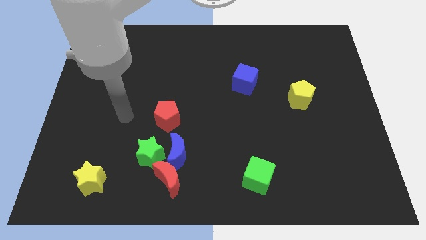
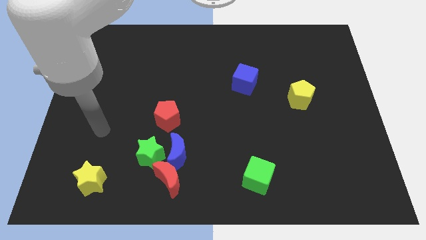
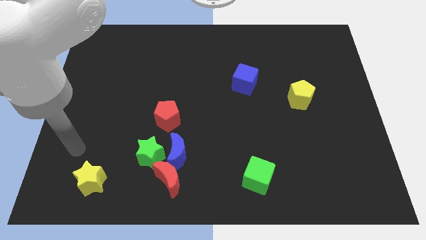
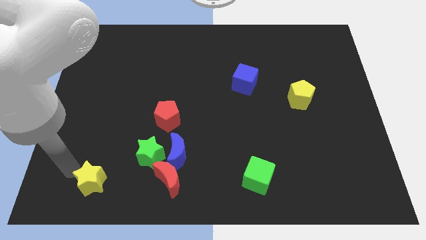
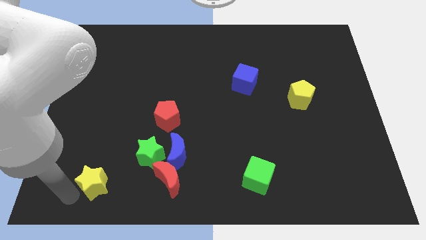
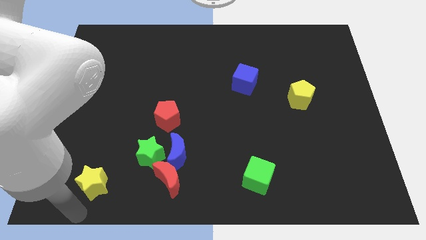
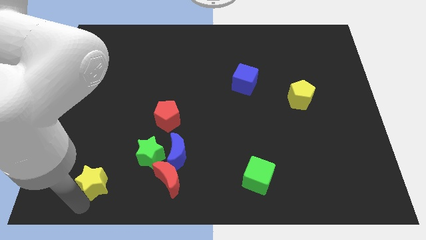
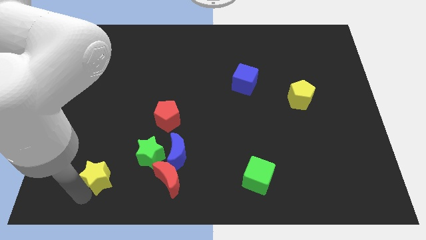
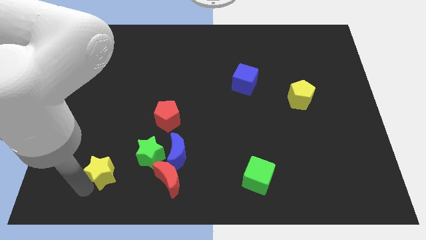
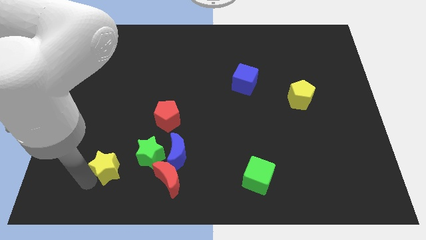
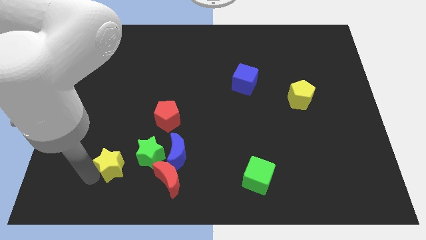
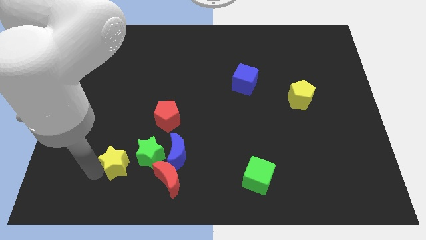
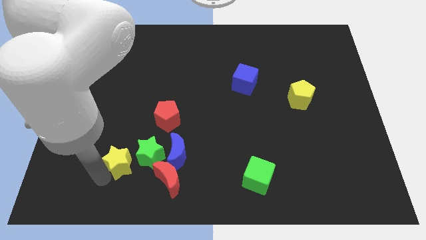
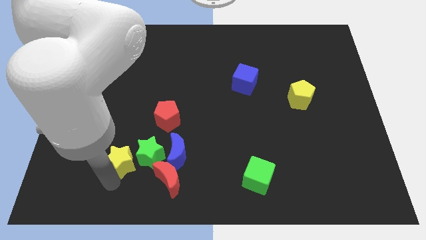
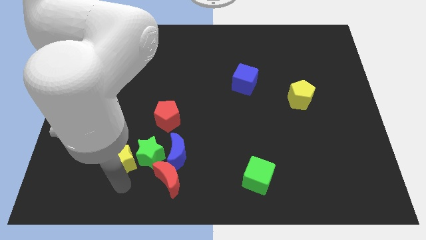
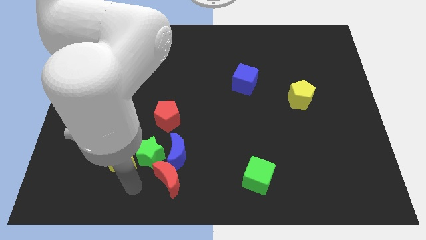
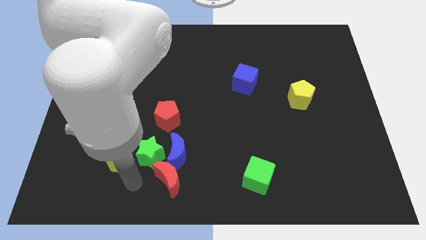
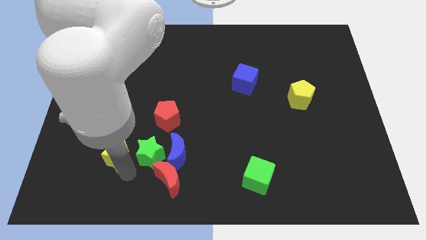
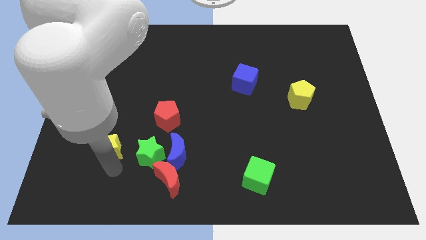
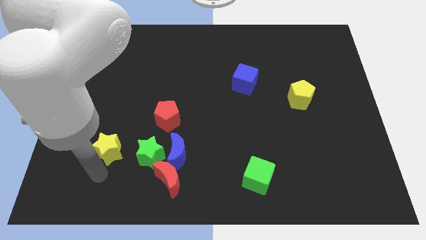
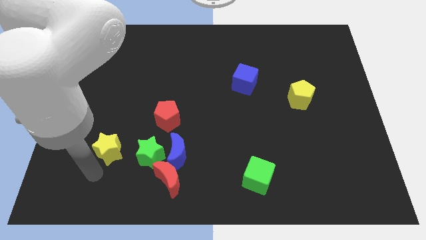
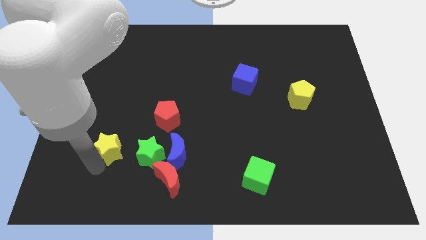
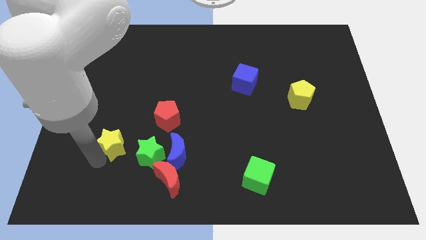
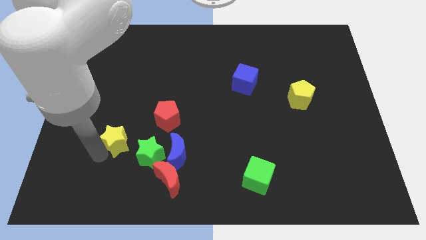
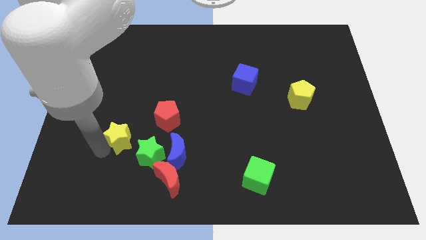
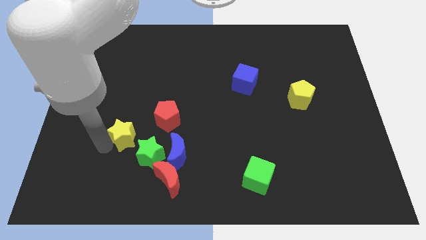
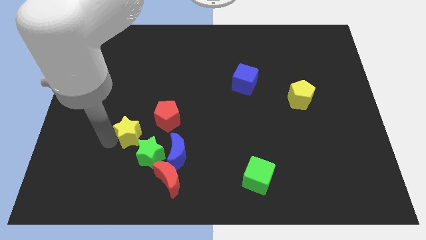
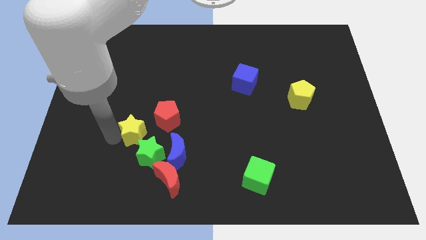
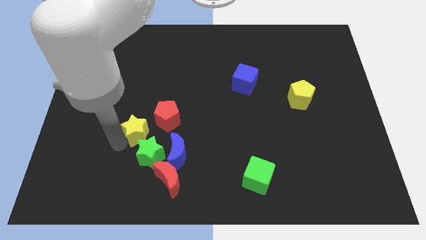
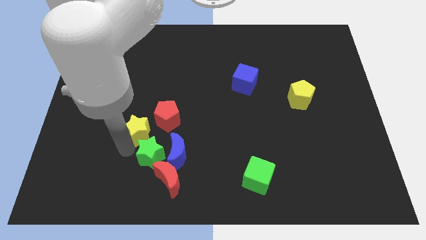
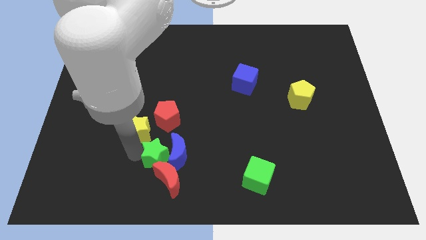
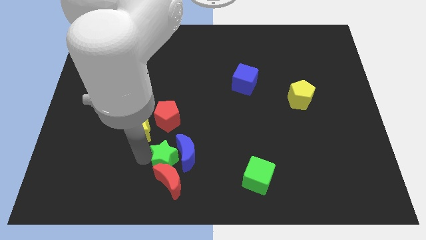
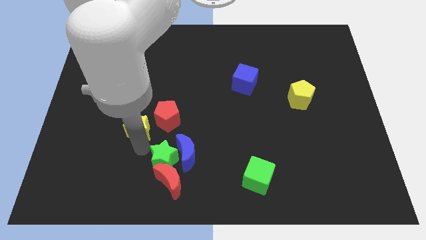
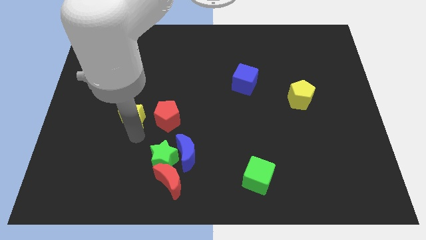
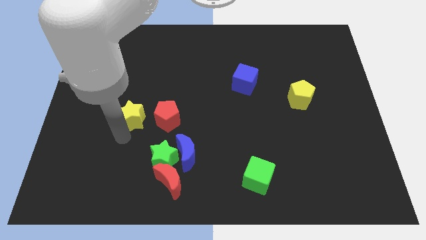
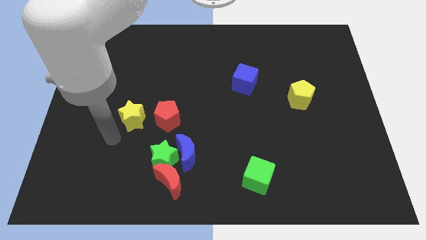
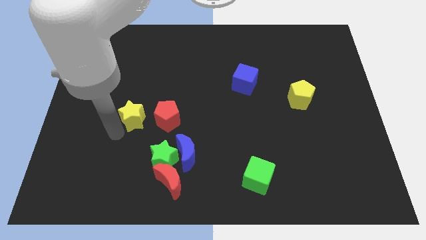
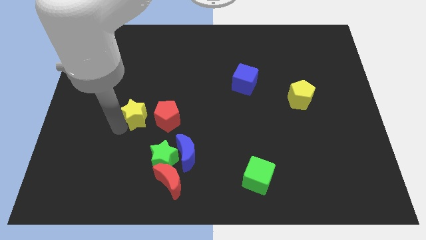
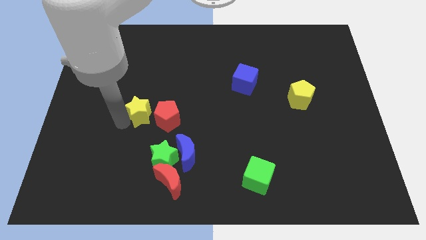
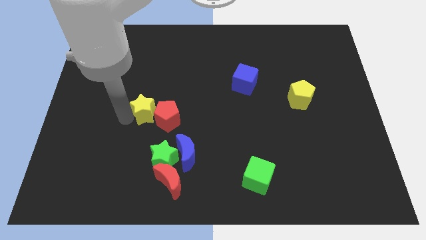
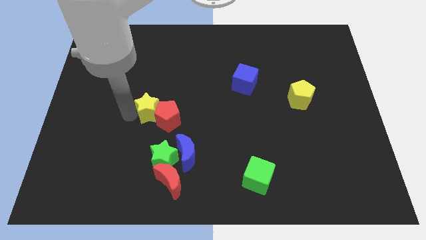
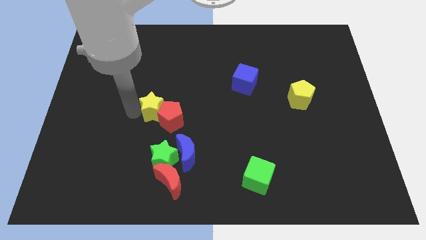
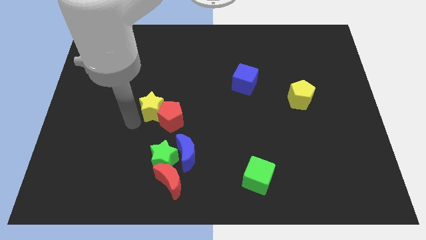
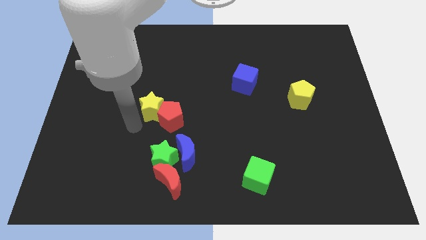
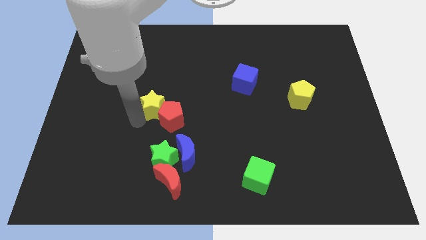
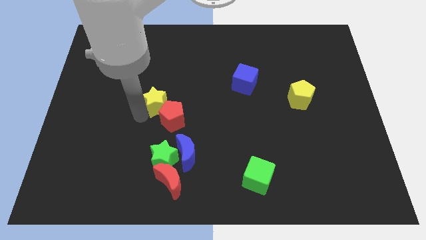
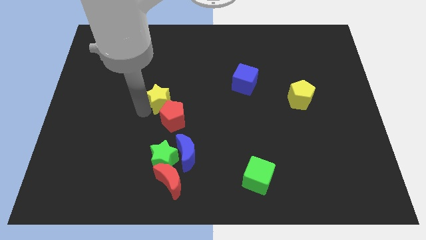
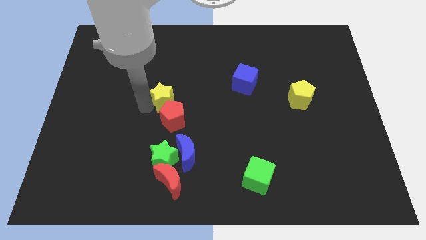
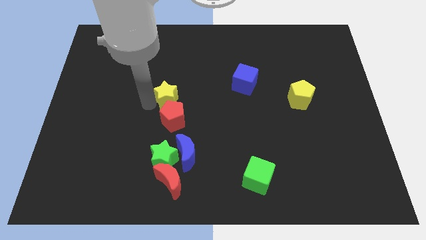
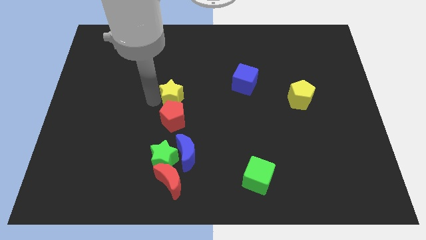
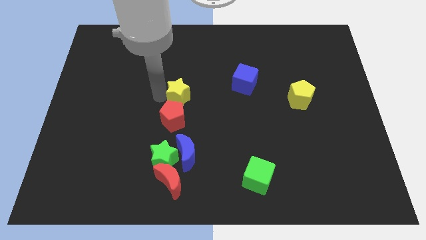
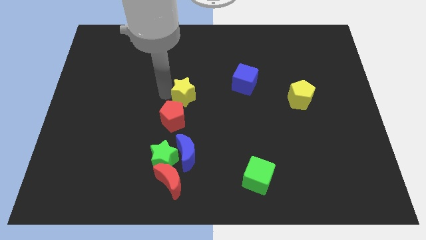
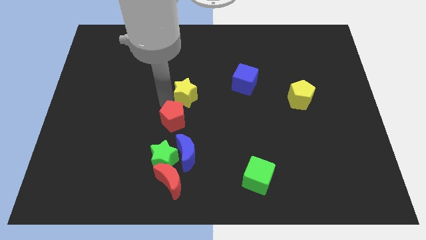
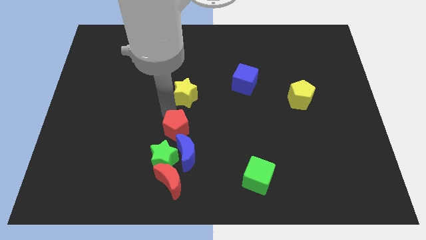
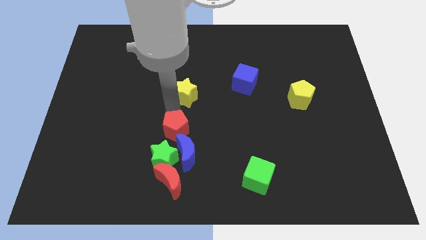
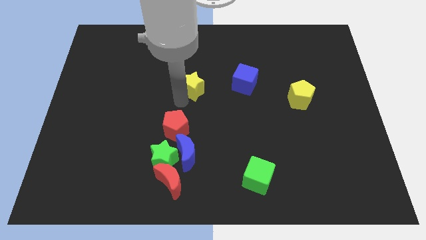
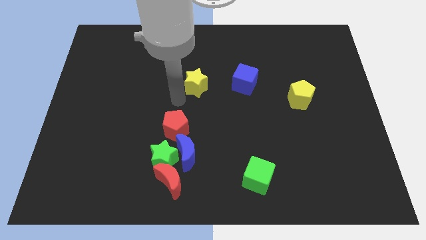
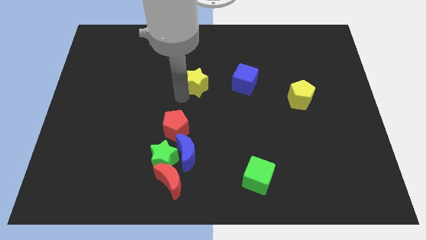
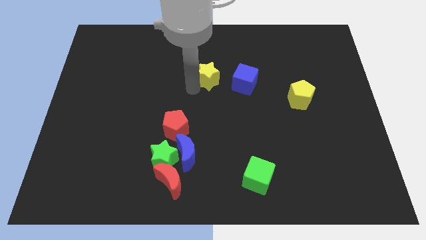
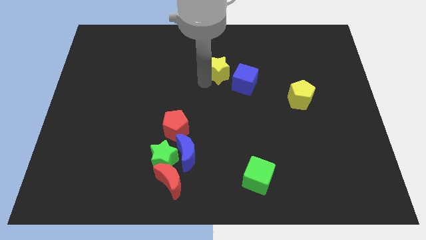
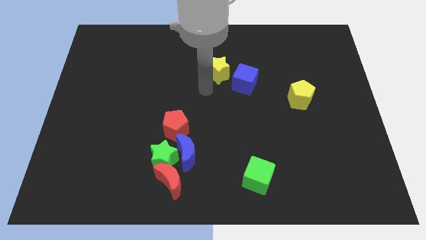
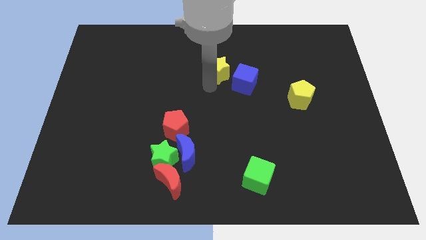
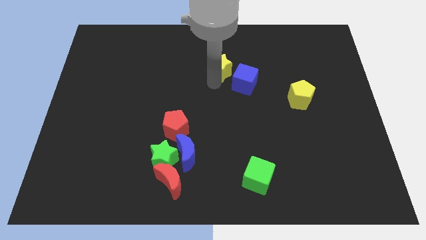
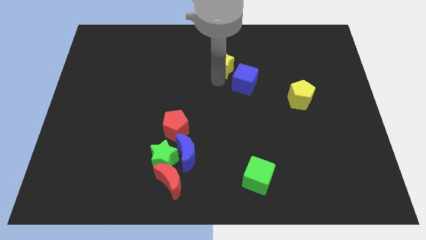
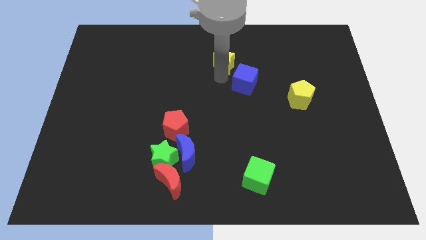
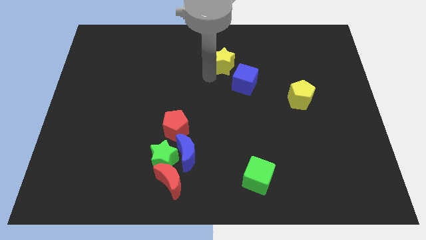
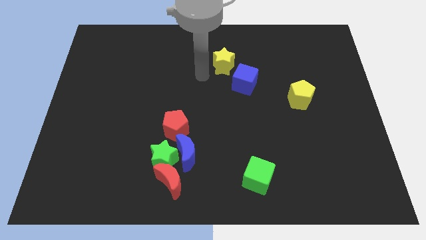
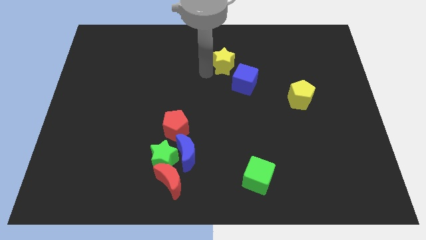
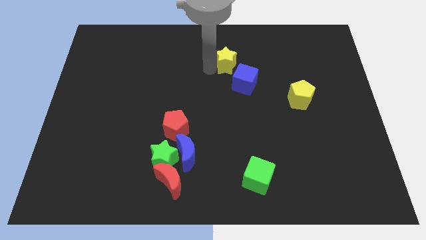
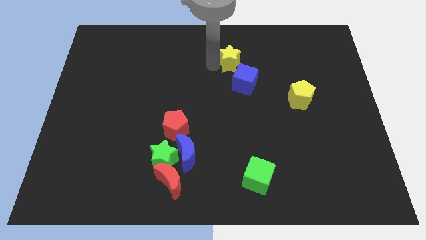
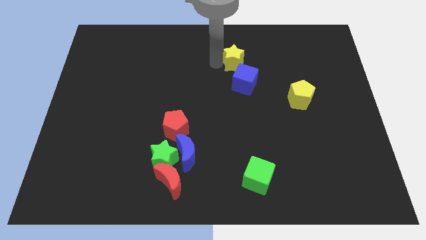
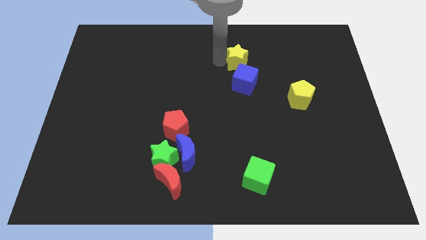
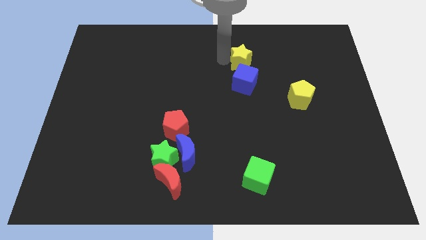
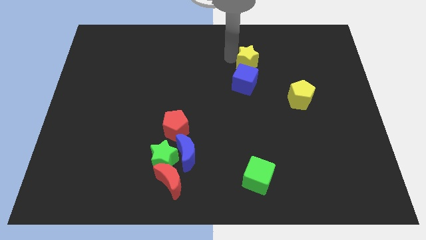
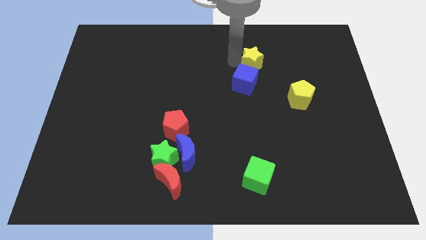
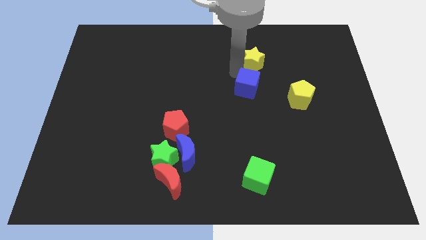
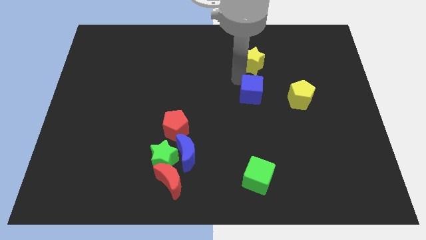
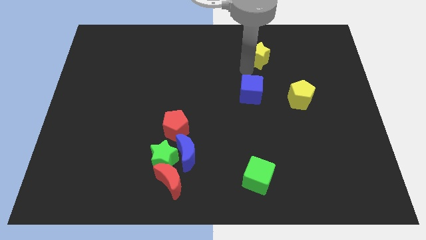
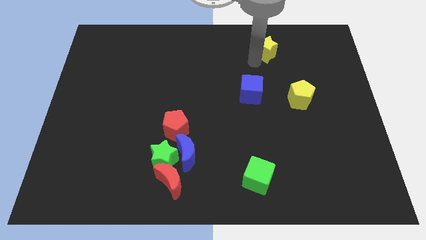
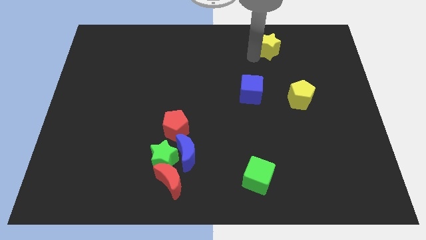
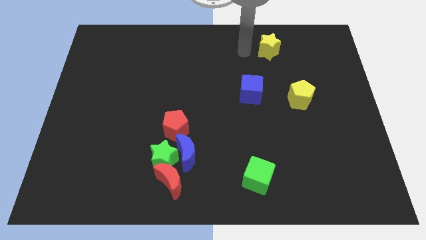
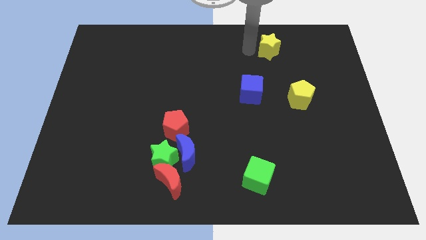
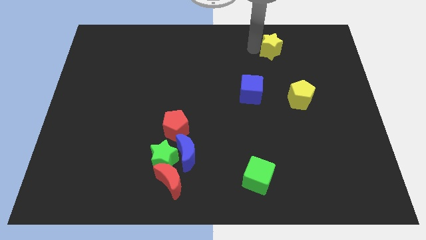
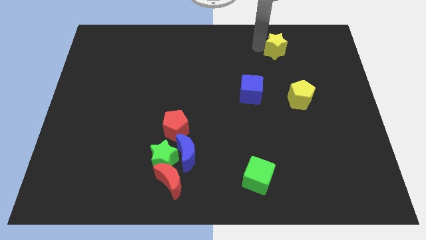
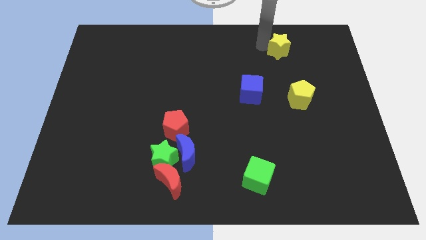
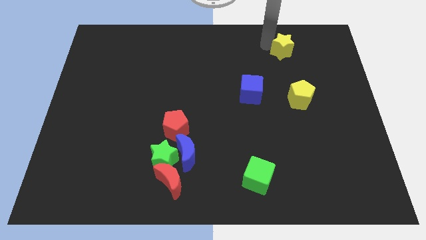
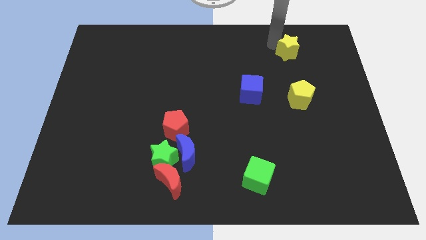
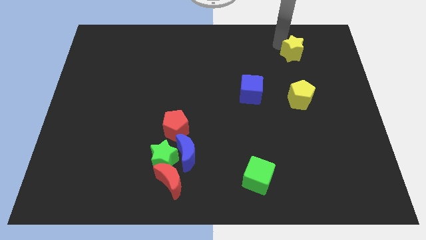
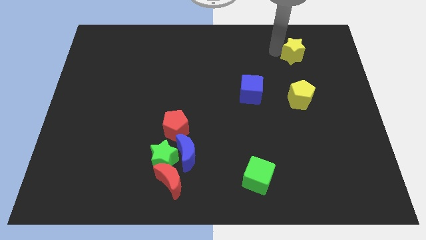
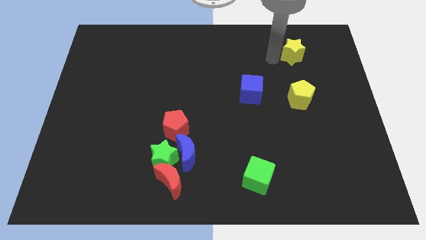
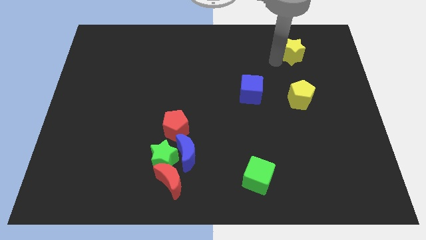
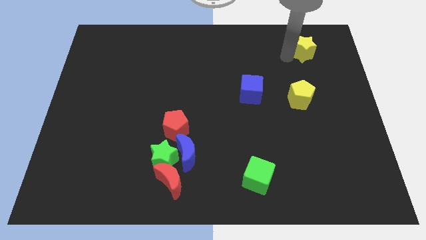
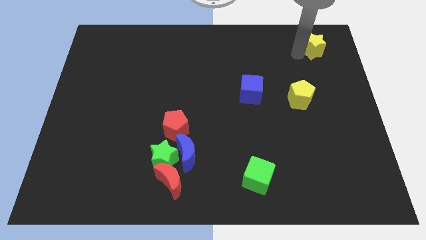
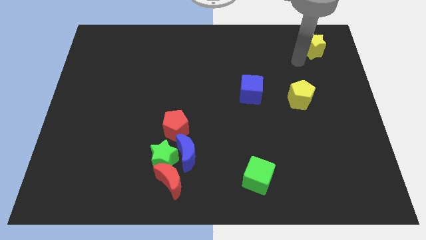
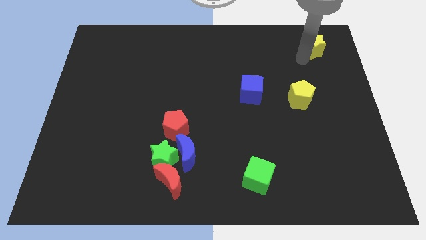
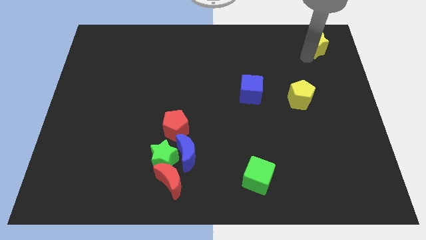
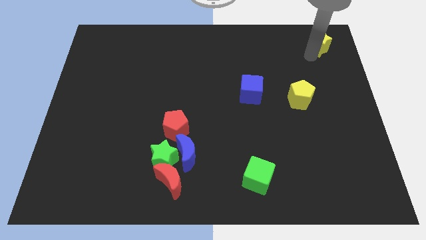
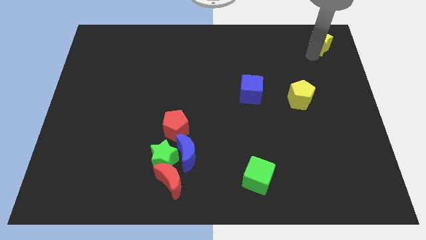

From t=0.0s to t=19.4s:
slide the yellow star to the upper right corner
